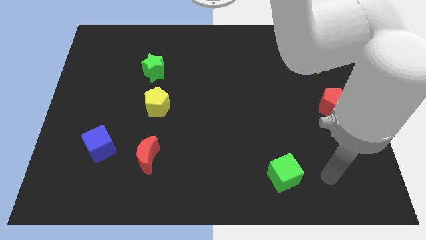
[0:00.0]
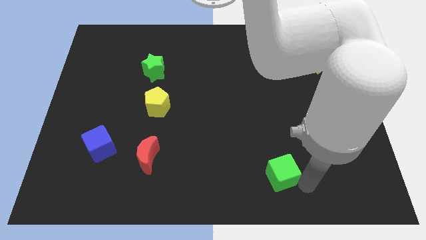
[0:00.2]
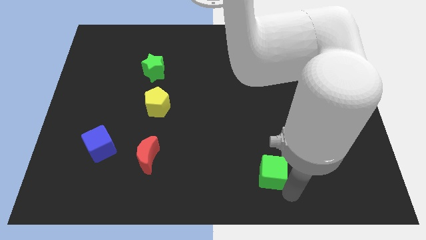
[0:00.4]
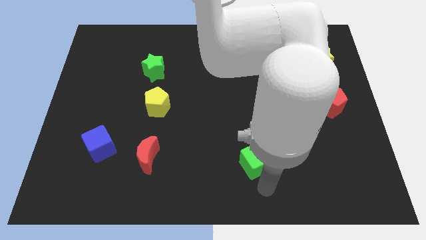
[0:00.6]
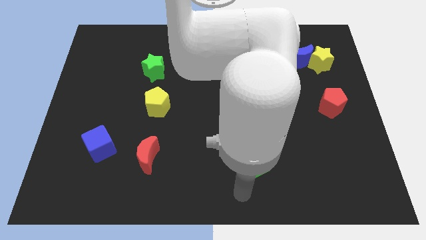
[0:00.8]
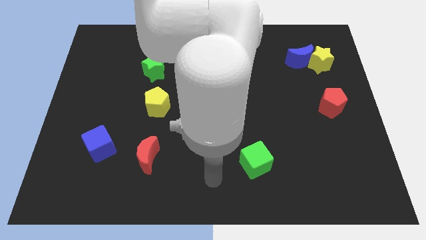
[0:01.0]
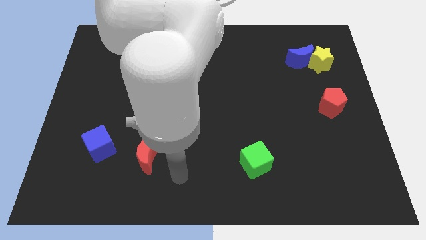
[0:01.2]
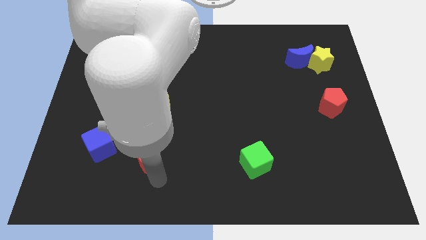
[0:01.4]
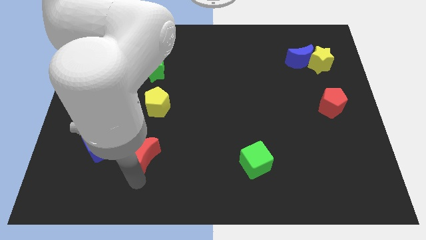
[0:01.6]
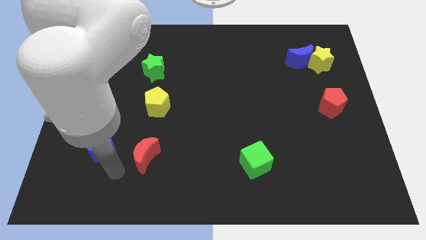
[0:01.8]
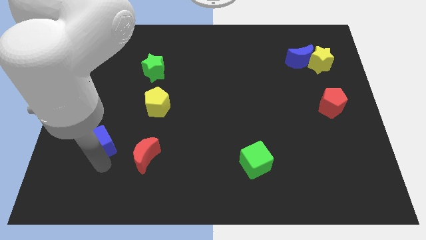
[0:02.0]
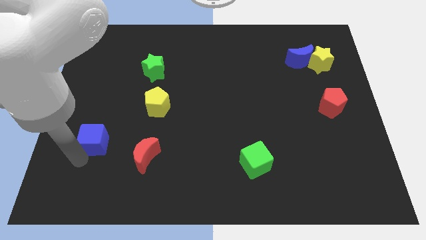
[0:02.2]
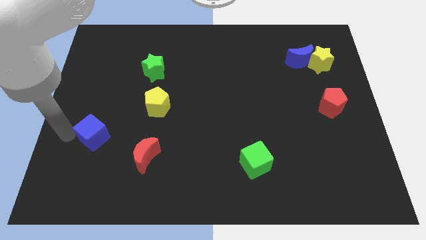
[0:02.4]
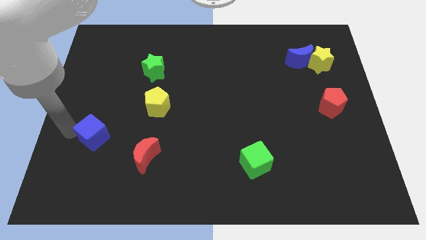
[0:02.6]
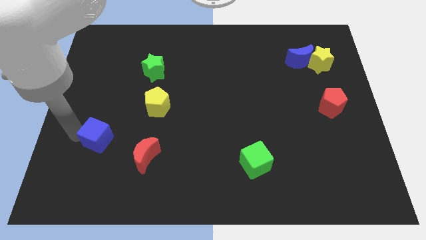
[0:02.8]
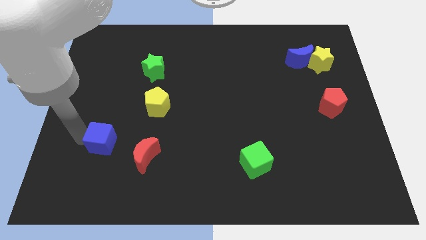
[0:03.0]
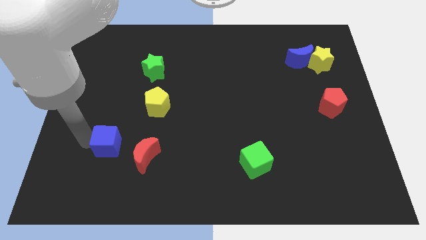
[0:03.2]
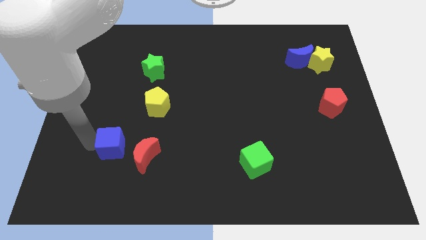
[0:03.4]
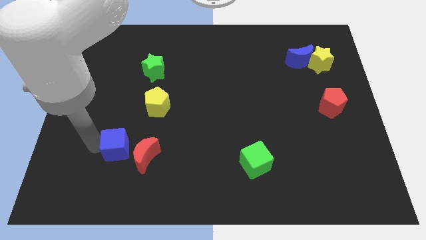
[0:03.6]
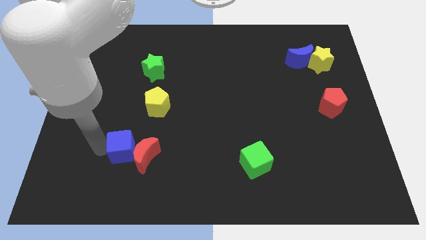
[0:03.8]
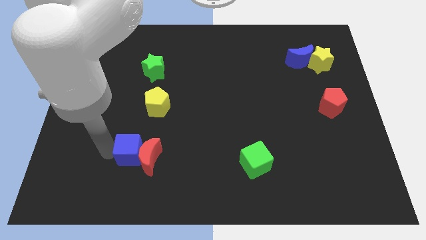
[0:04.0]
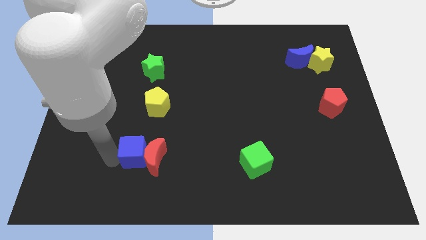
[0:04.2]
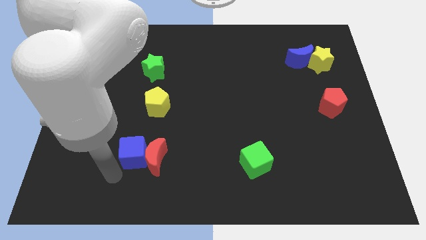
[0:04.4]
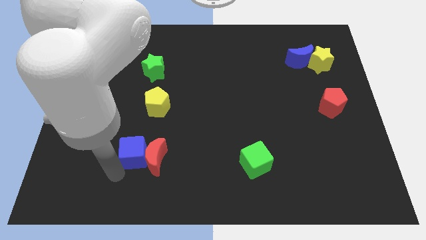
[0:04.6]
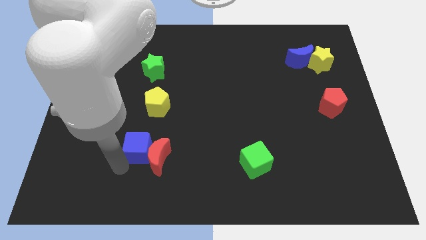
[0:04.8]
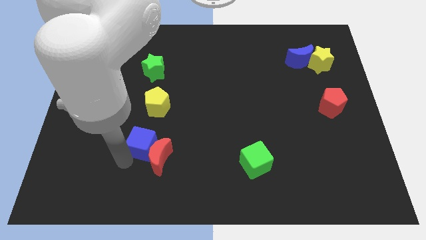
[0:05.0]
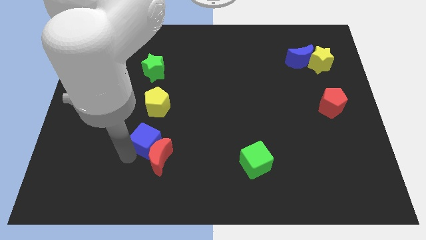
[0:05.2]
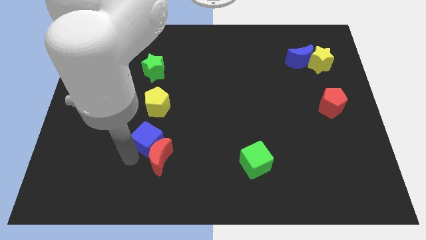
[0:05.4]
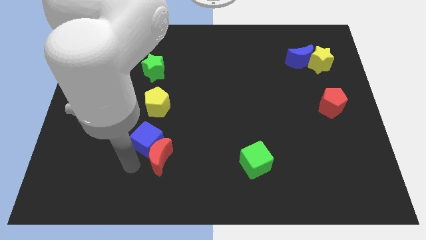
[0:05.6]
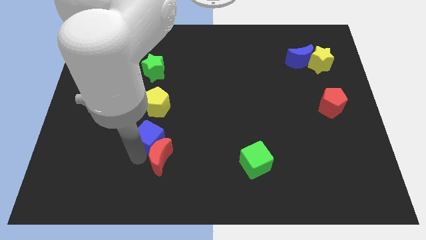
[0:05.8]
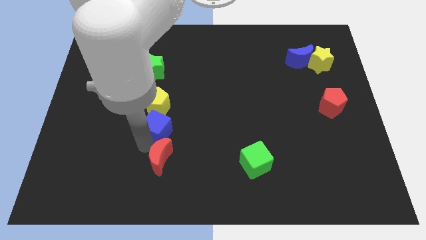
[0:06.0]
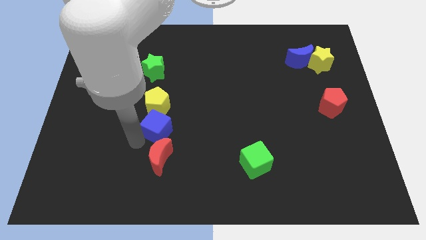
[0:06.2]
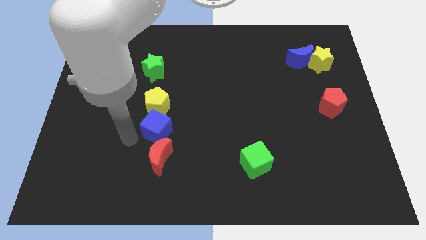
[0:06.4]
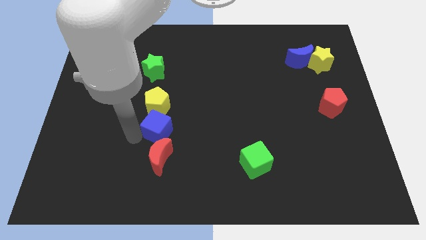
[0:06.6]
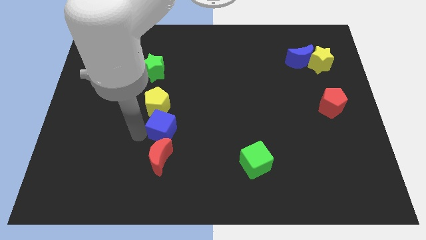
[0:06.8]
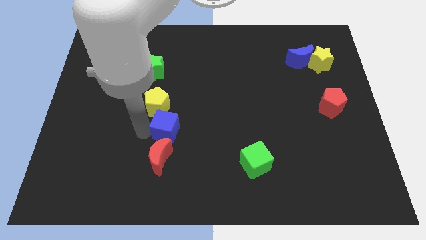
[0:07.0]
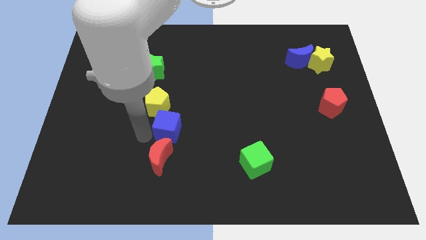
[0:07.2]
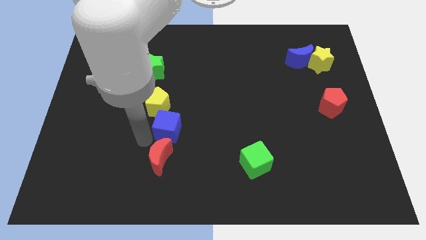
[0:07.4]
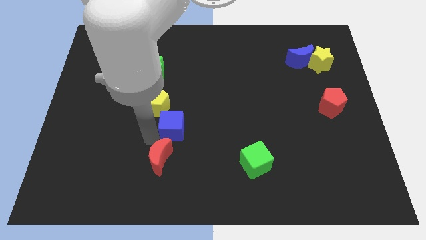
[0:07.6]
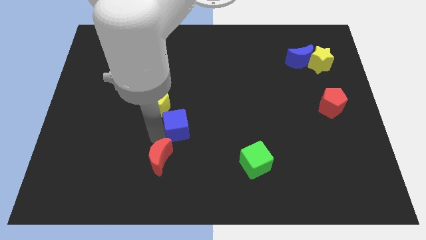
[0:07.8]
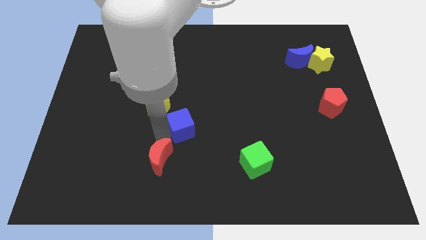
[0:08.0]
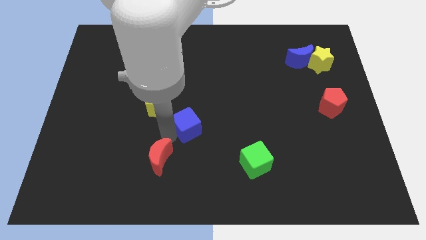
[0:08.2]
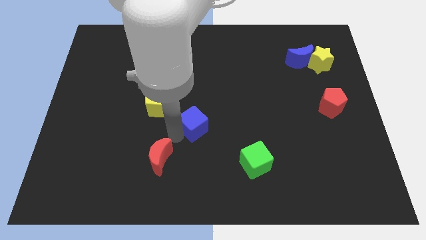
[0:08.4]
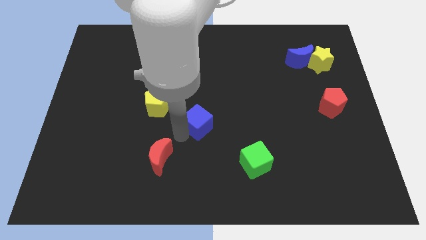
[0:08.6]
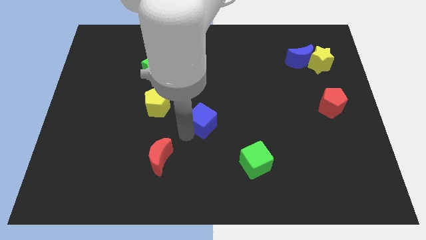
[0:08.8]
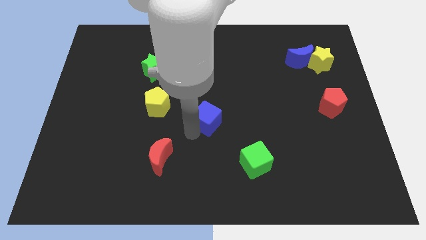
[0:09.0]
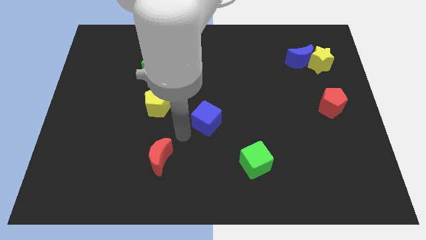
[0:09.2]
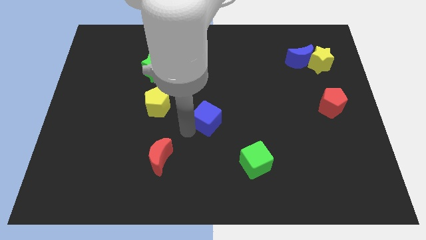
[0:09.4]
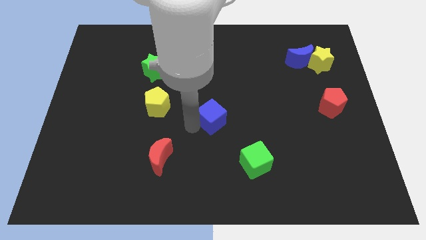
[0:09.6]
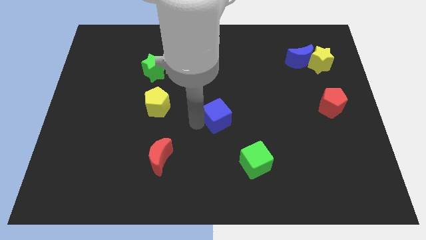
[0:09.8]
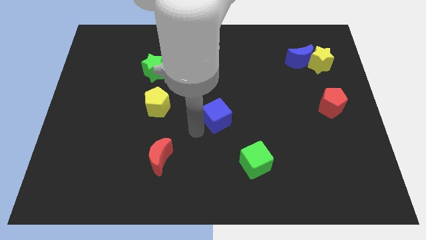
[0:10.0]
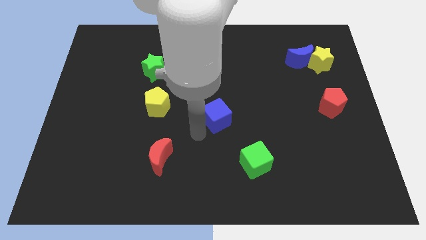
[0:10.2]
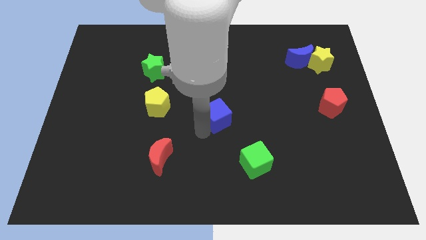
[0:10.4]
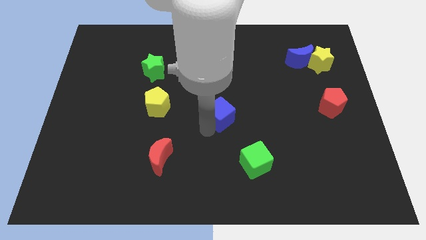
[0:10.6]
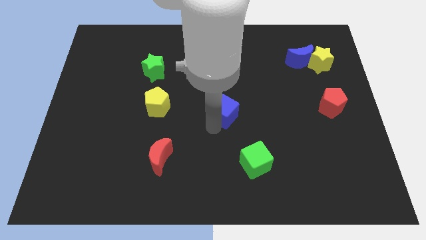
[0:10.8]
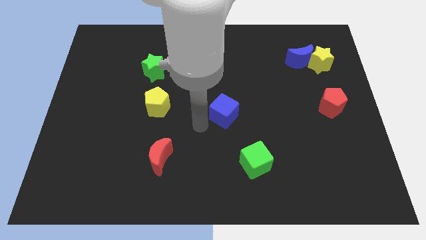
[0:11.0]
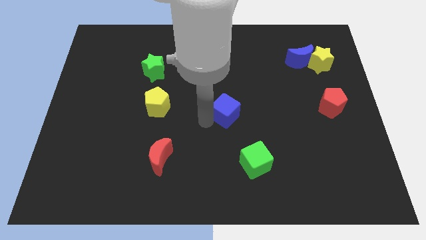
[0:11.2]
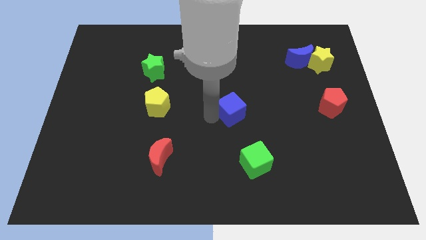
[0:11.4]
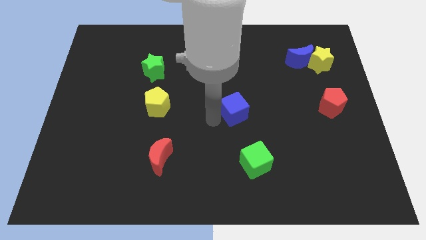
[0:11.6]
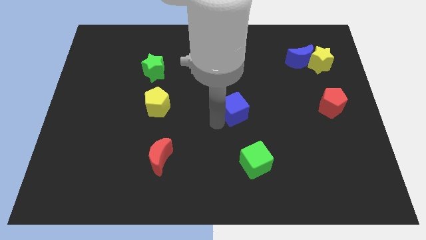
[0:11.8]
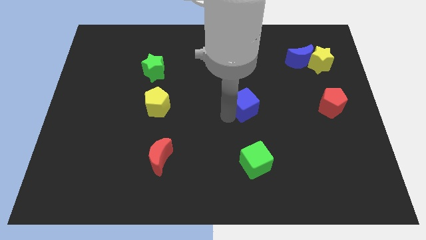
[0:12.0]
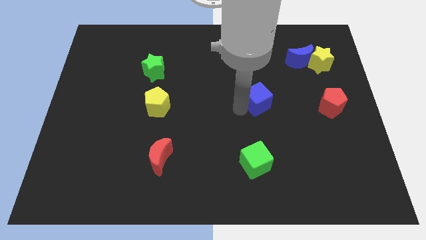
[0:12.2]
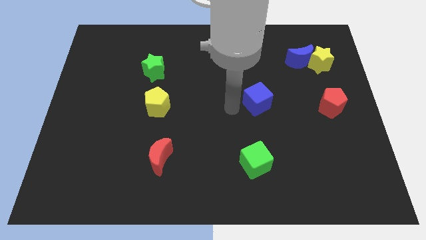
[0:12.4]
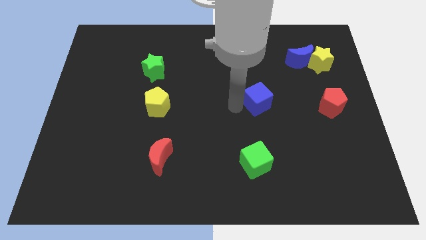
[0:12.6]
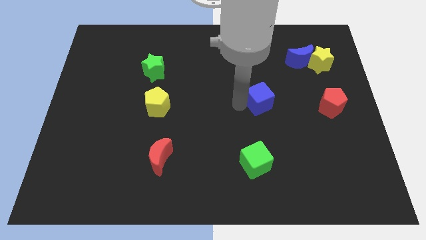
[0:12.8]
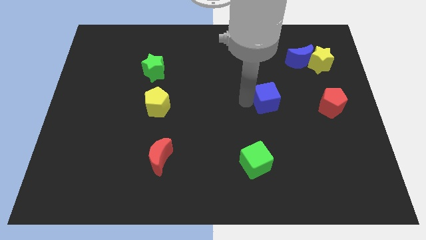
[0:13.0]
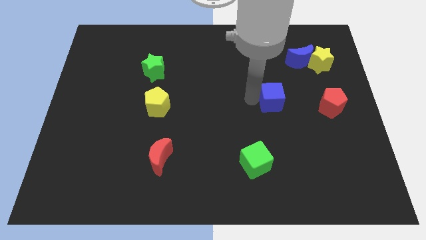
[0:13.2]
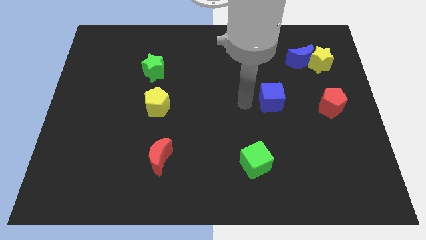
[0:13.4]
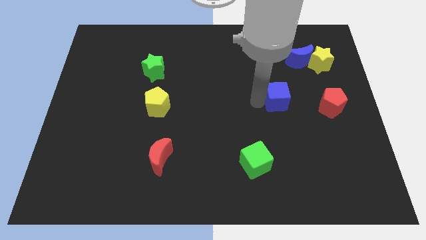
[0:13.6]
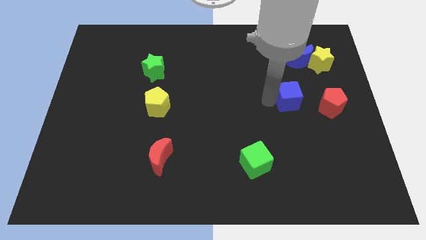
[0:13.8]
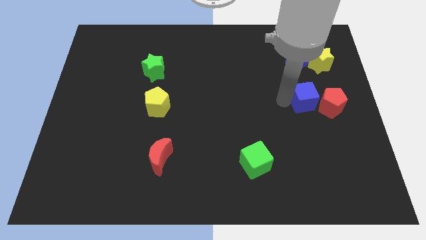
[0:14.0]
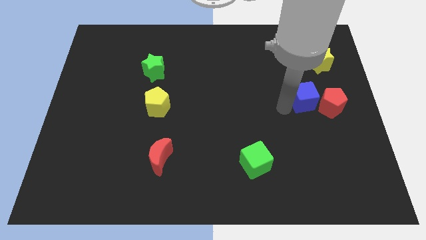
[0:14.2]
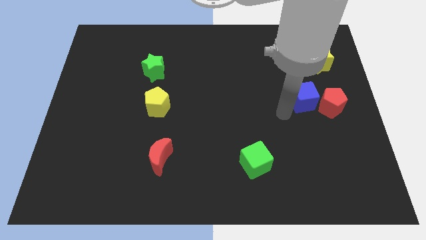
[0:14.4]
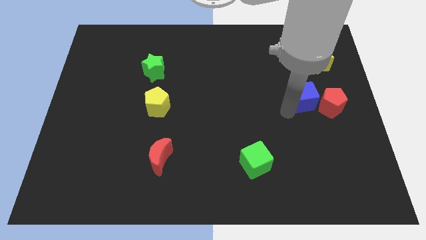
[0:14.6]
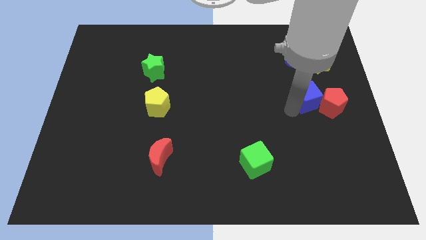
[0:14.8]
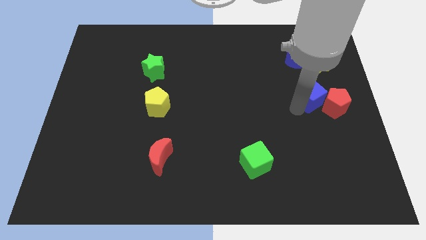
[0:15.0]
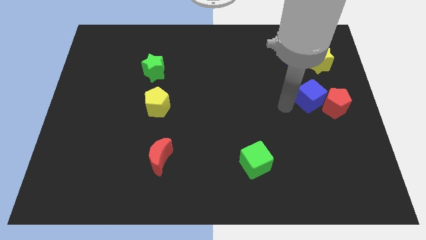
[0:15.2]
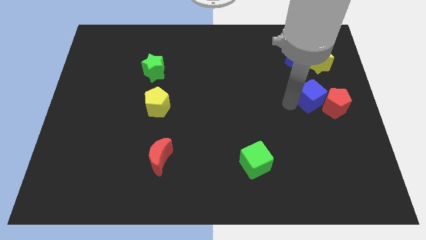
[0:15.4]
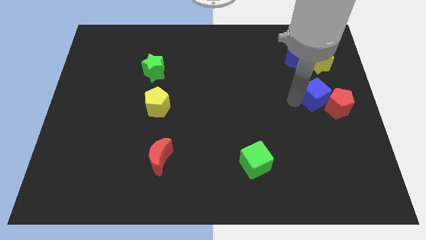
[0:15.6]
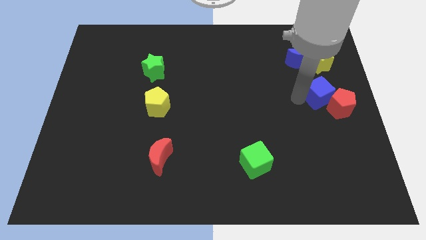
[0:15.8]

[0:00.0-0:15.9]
push the blue cube to the center right
